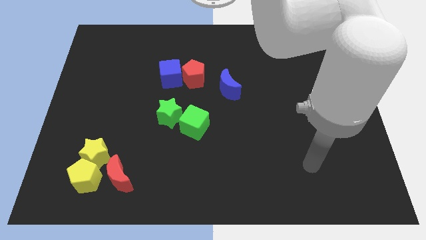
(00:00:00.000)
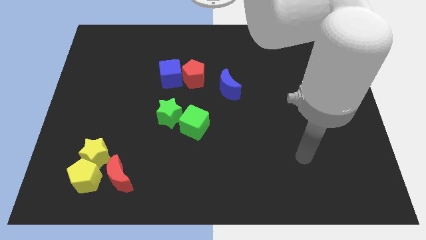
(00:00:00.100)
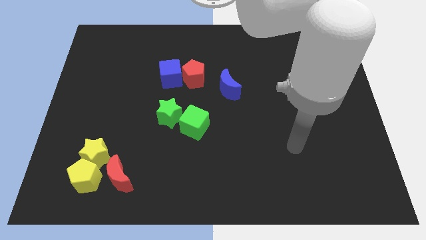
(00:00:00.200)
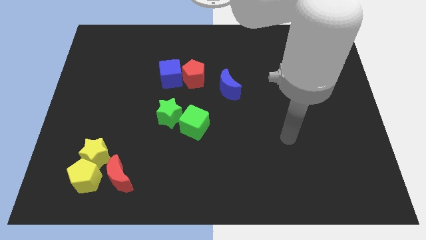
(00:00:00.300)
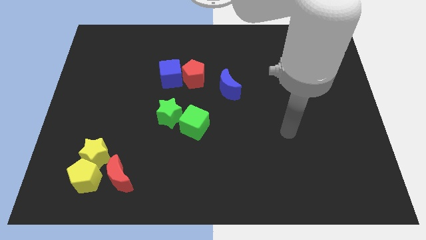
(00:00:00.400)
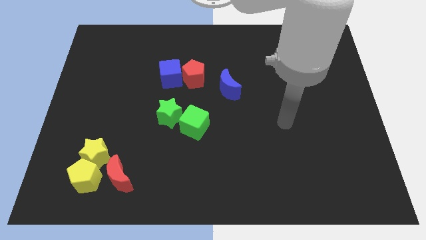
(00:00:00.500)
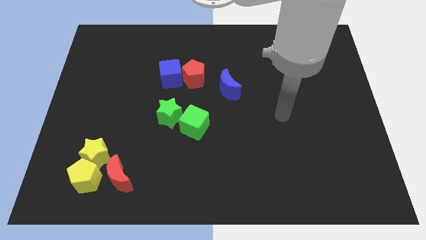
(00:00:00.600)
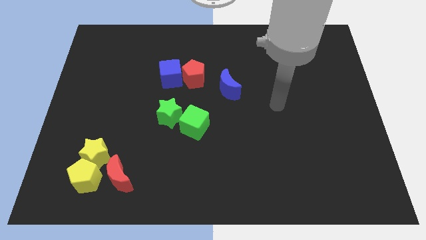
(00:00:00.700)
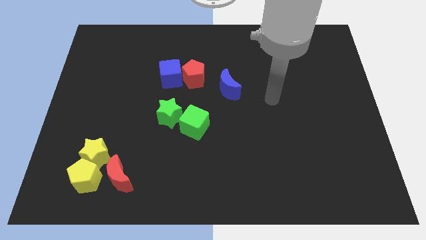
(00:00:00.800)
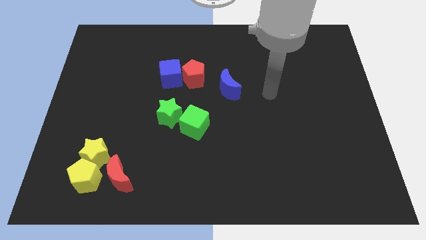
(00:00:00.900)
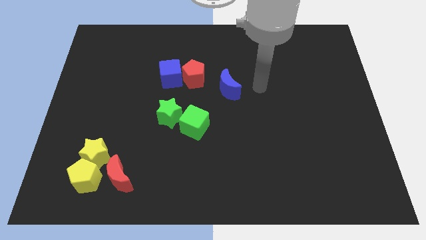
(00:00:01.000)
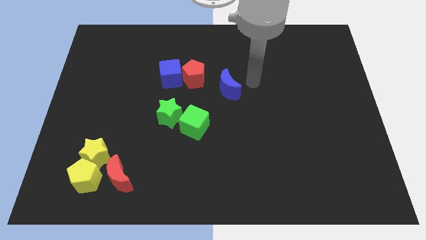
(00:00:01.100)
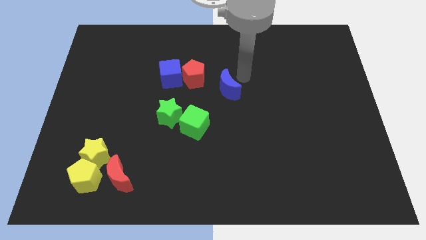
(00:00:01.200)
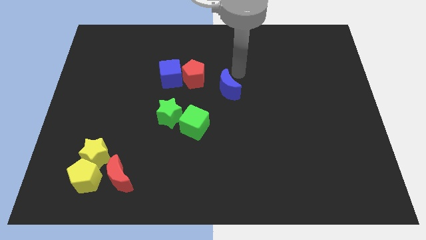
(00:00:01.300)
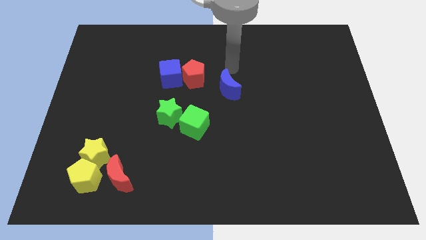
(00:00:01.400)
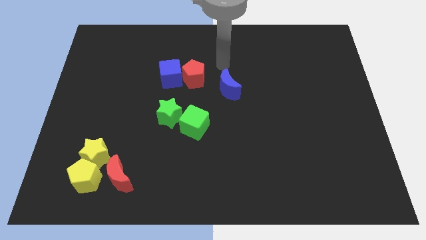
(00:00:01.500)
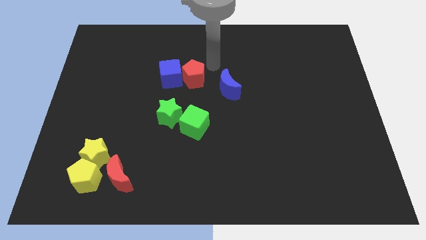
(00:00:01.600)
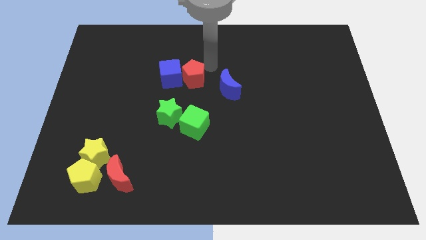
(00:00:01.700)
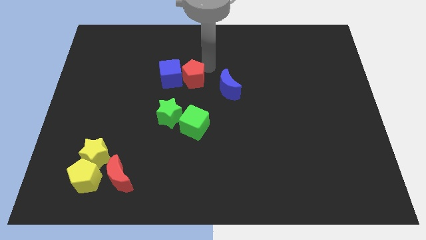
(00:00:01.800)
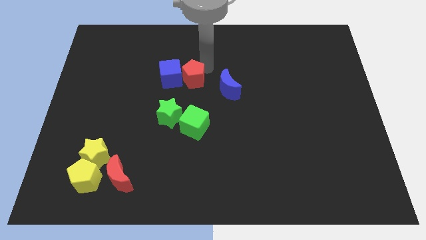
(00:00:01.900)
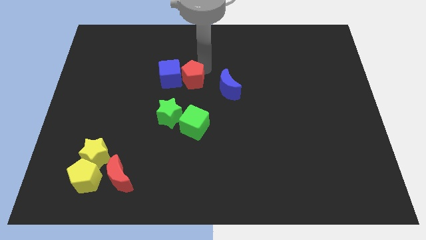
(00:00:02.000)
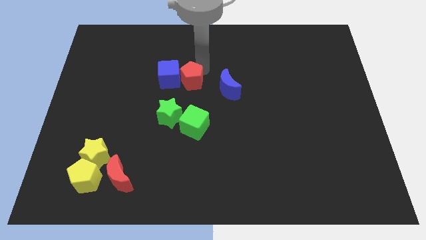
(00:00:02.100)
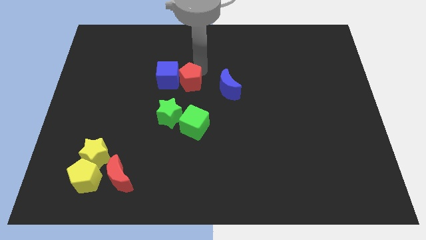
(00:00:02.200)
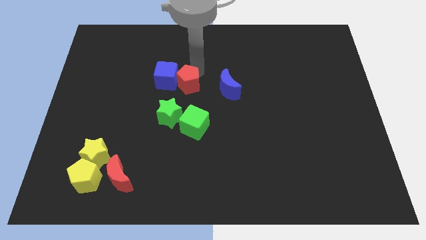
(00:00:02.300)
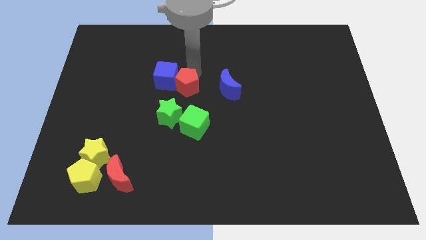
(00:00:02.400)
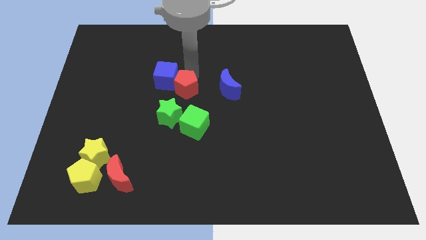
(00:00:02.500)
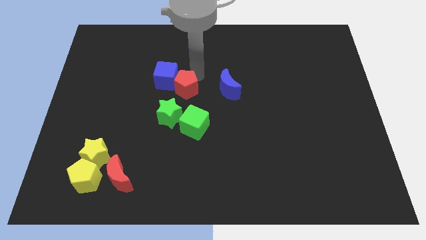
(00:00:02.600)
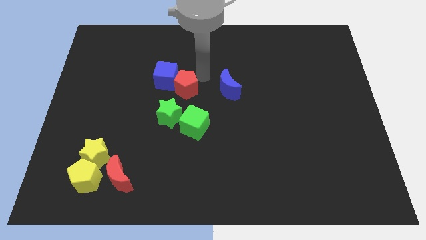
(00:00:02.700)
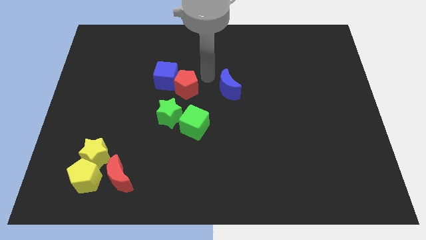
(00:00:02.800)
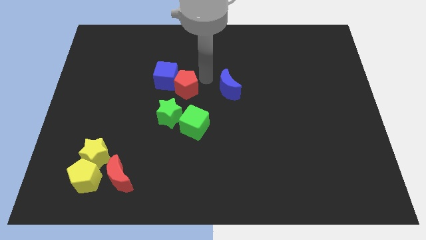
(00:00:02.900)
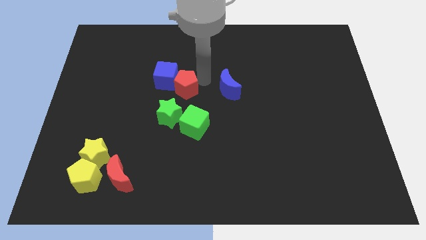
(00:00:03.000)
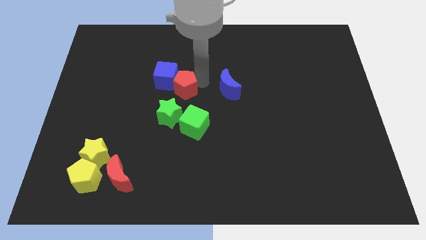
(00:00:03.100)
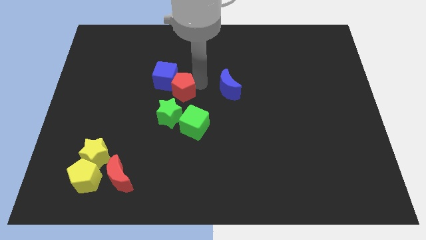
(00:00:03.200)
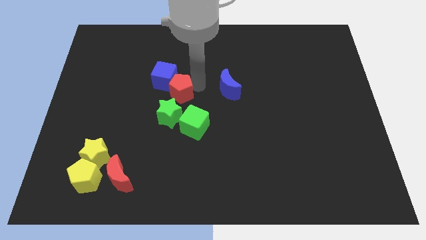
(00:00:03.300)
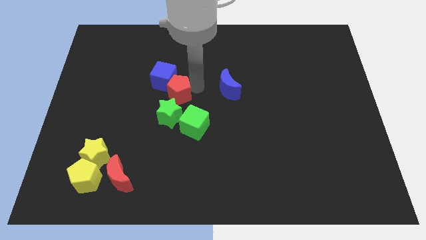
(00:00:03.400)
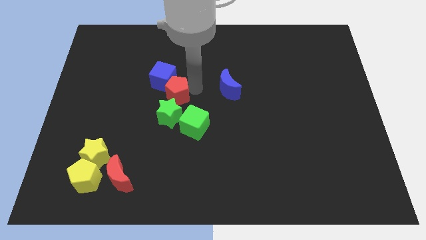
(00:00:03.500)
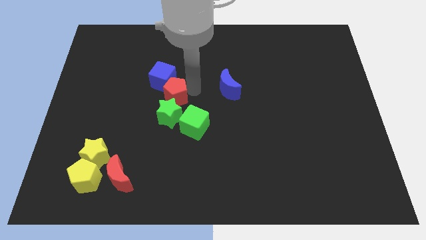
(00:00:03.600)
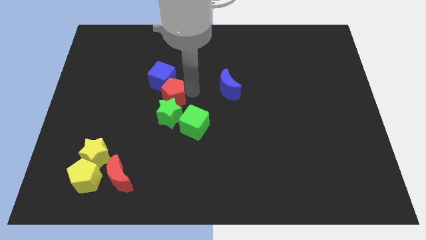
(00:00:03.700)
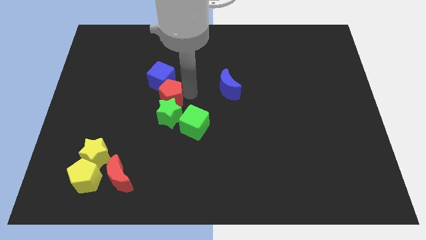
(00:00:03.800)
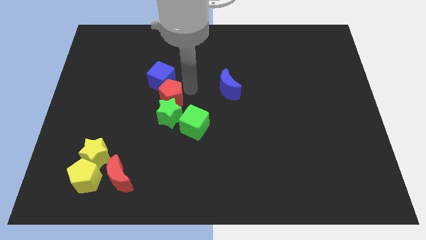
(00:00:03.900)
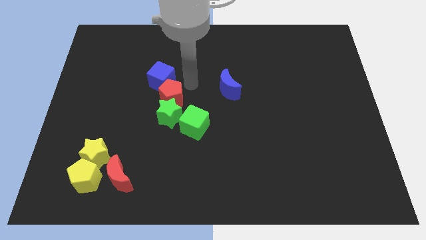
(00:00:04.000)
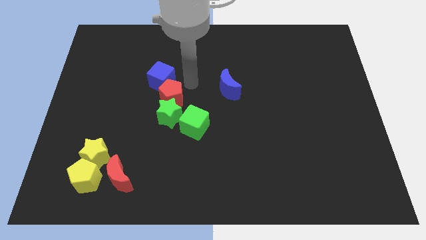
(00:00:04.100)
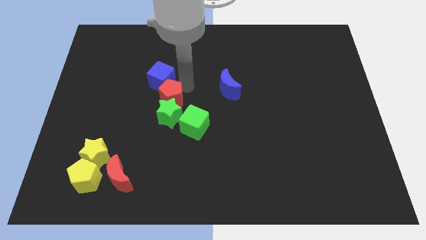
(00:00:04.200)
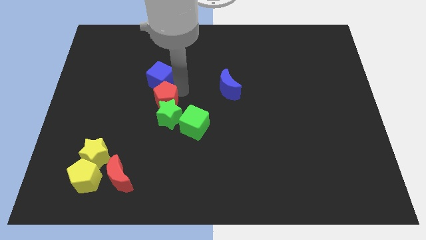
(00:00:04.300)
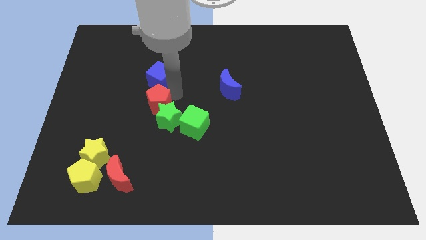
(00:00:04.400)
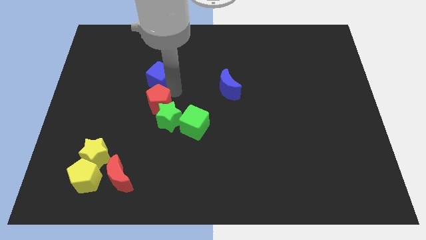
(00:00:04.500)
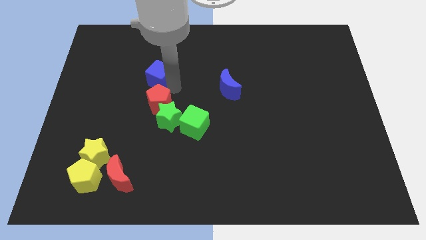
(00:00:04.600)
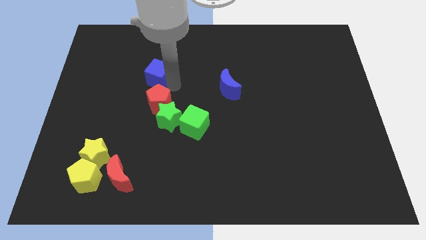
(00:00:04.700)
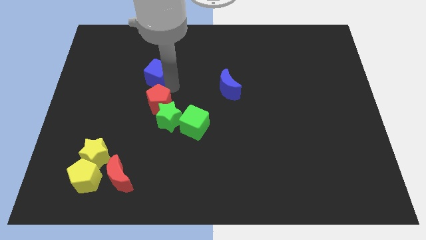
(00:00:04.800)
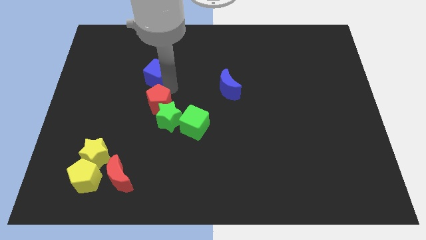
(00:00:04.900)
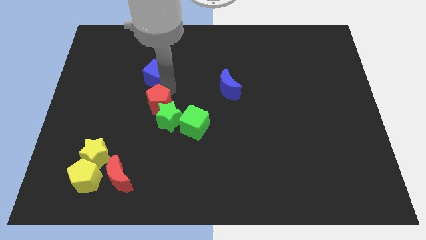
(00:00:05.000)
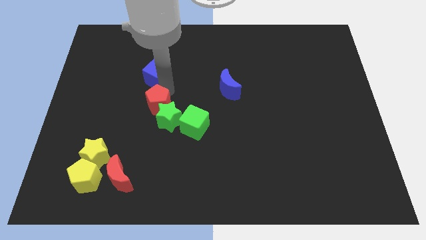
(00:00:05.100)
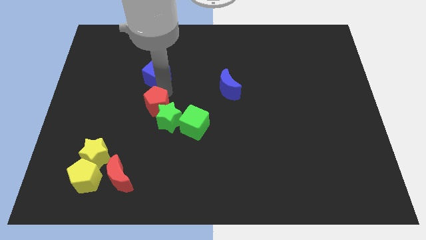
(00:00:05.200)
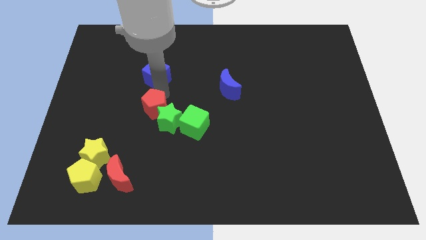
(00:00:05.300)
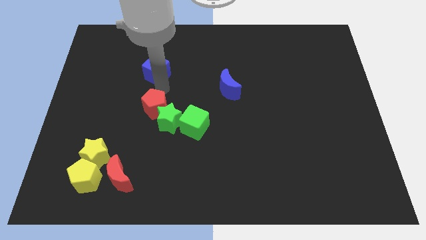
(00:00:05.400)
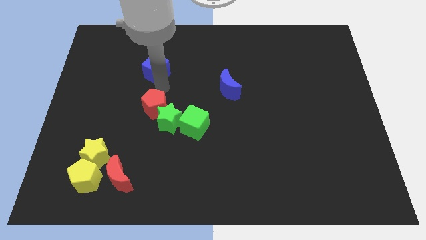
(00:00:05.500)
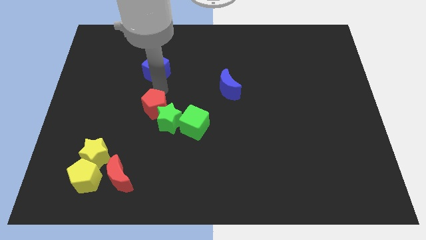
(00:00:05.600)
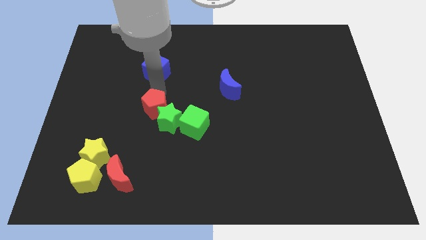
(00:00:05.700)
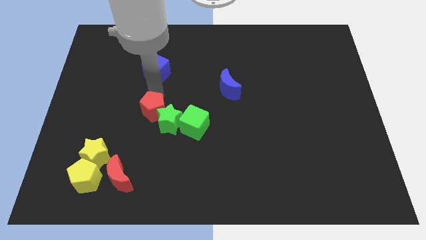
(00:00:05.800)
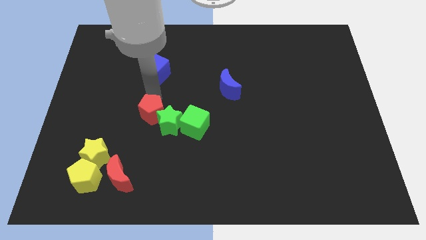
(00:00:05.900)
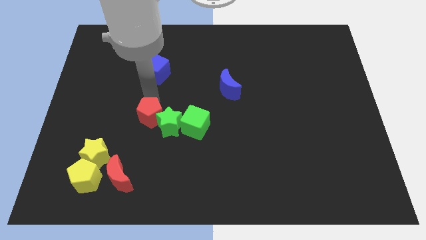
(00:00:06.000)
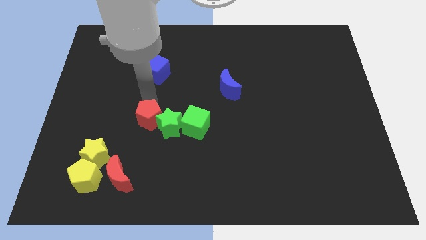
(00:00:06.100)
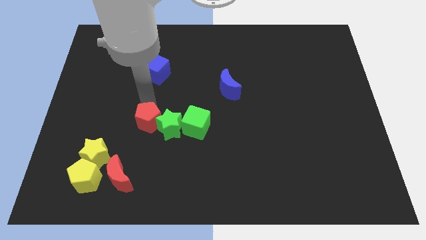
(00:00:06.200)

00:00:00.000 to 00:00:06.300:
slide the red pentagon diagonally down and to the left of the green star
